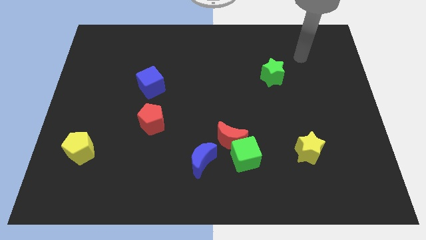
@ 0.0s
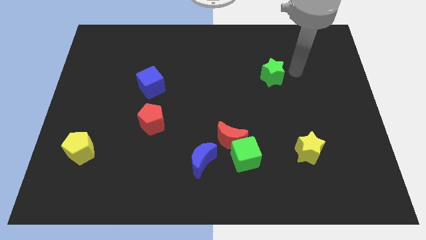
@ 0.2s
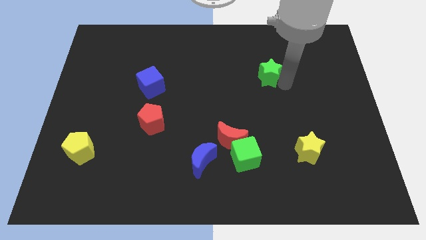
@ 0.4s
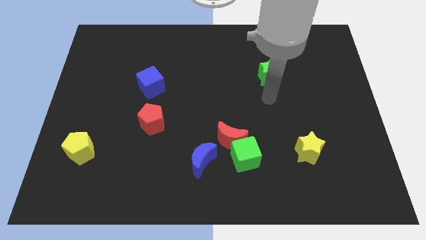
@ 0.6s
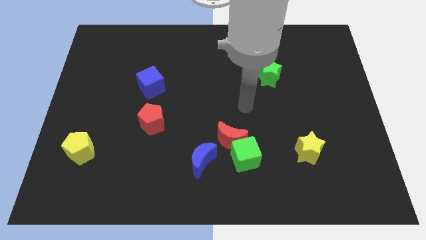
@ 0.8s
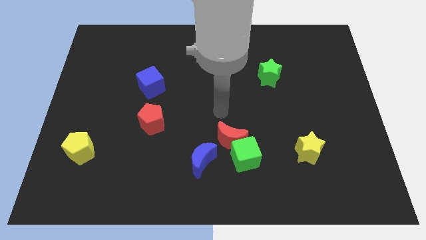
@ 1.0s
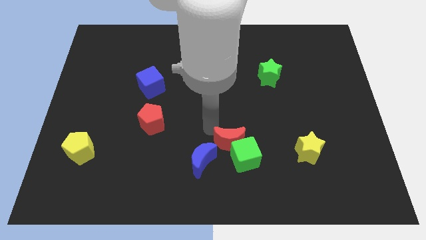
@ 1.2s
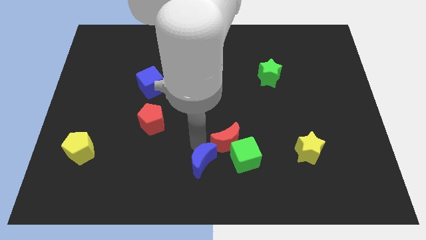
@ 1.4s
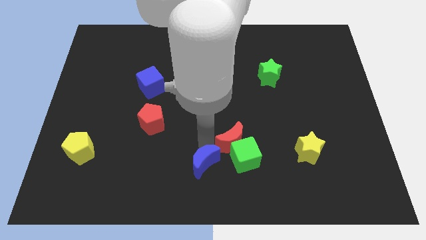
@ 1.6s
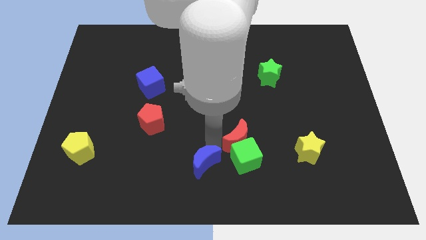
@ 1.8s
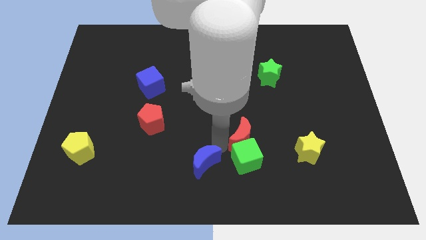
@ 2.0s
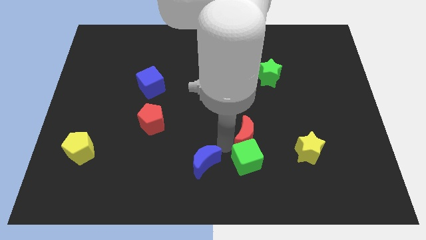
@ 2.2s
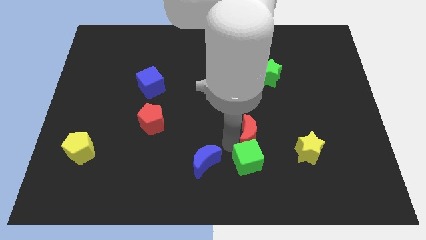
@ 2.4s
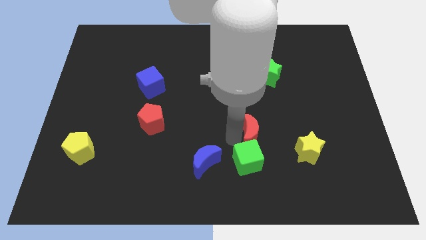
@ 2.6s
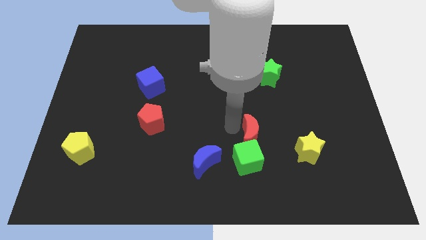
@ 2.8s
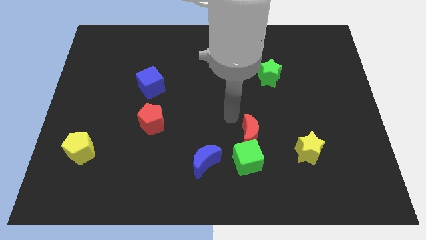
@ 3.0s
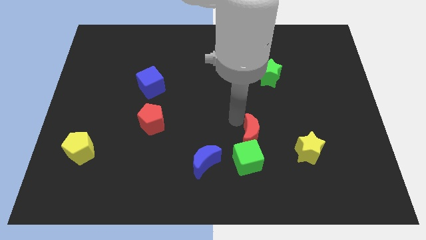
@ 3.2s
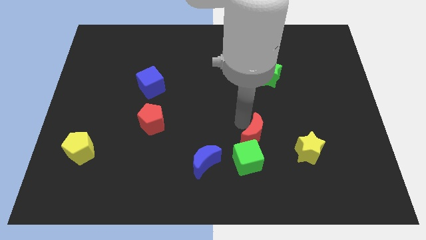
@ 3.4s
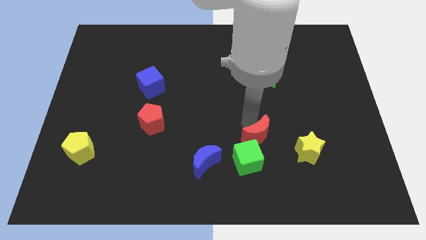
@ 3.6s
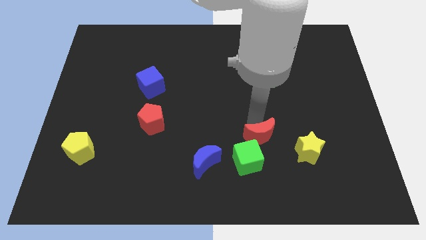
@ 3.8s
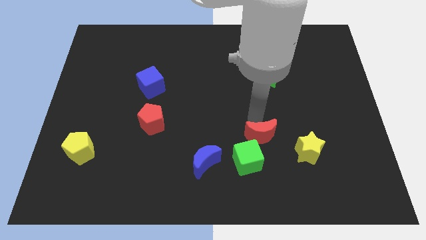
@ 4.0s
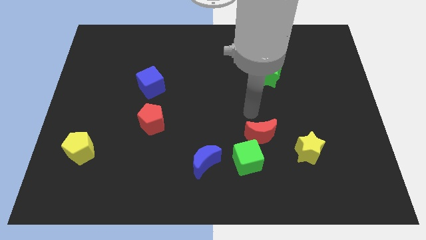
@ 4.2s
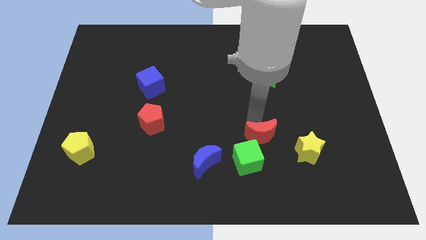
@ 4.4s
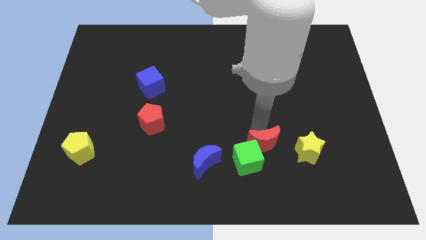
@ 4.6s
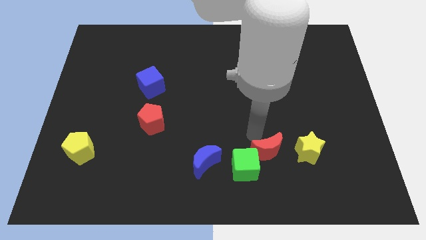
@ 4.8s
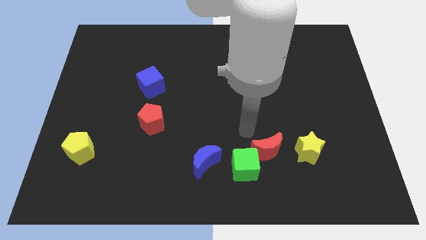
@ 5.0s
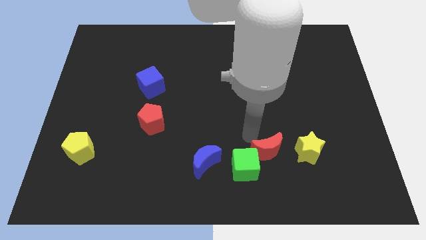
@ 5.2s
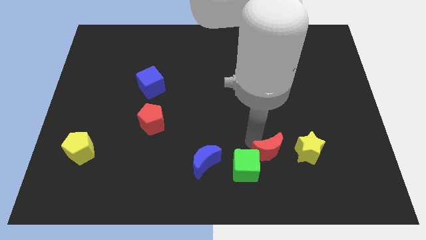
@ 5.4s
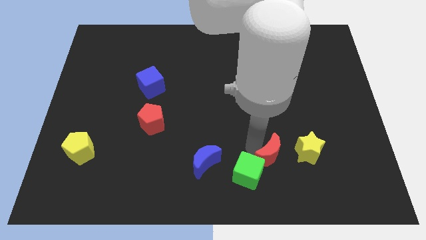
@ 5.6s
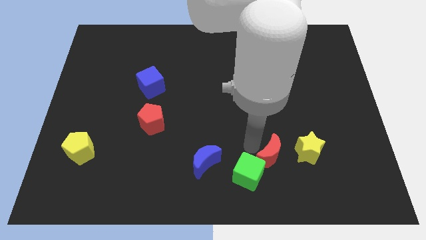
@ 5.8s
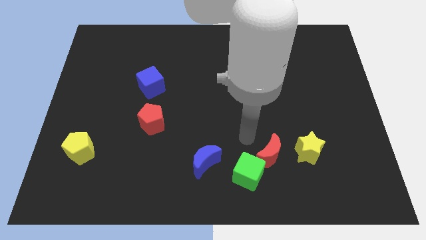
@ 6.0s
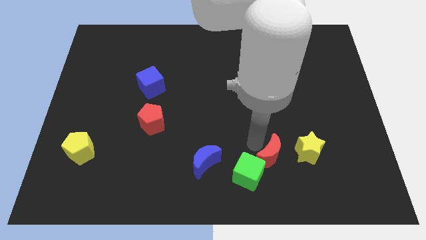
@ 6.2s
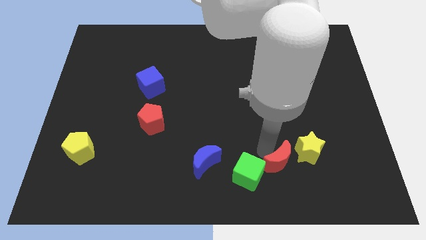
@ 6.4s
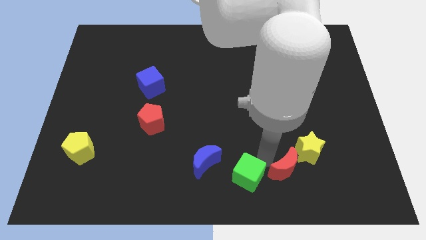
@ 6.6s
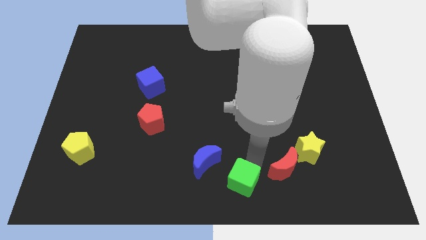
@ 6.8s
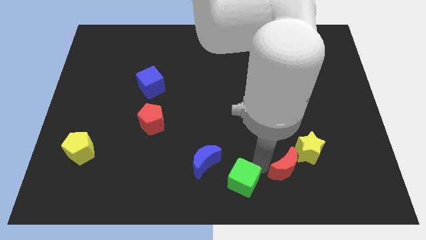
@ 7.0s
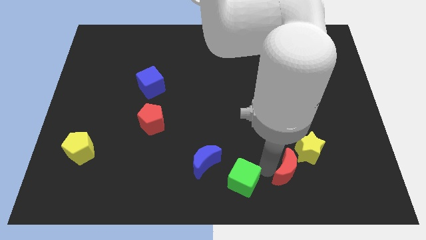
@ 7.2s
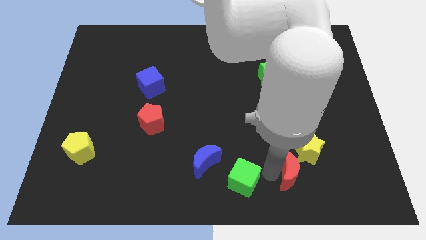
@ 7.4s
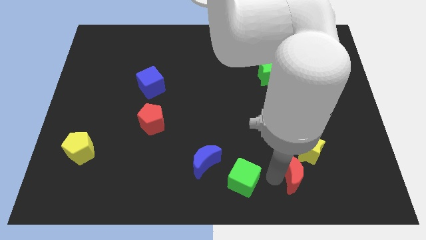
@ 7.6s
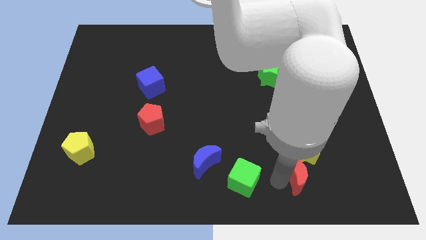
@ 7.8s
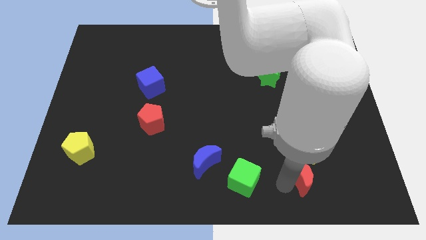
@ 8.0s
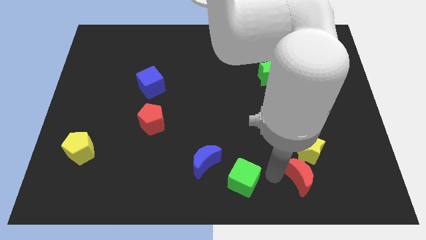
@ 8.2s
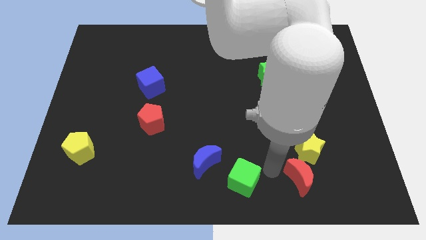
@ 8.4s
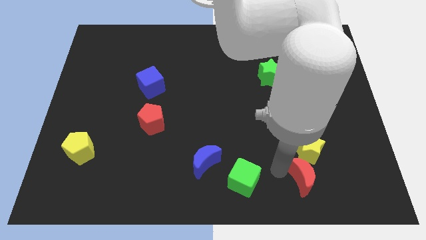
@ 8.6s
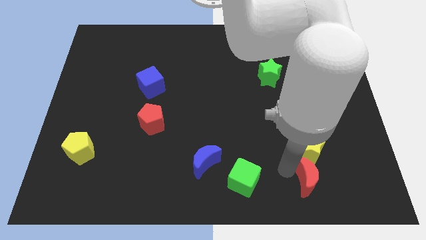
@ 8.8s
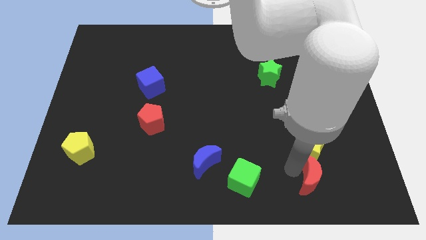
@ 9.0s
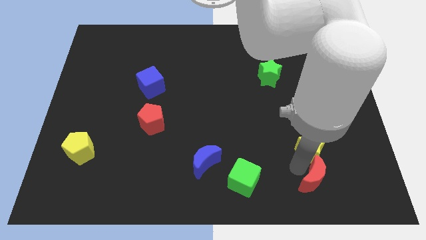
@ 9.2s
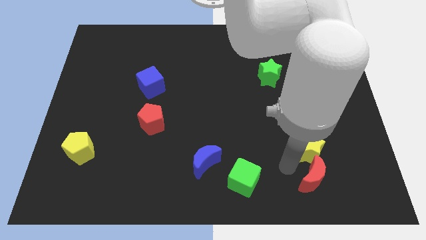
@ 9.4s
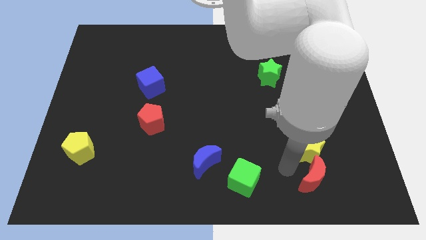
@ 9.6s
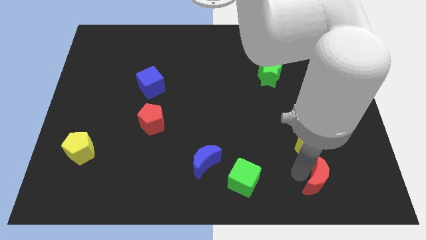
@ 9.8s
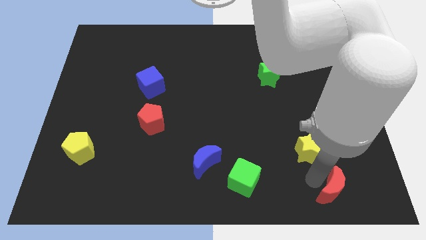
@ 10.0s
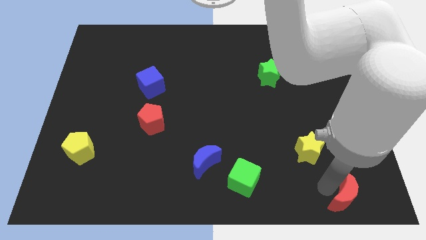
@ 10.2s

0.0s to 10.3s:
slide the red moon to the bottom right of the board

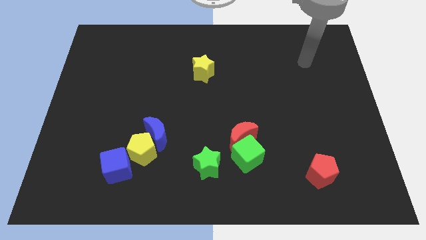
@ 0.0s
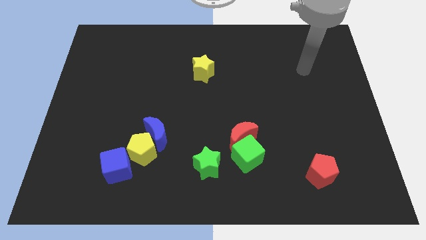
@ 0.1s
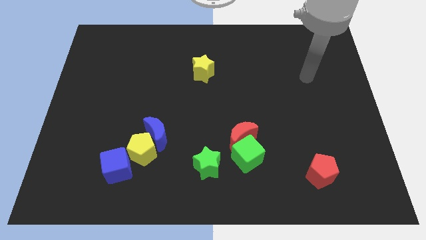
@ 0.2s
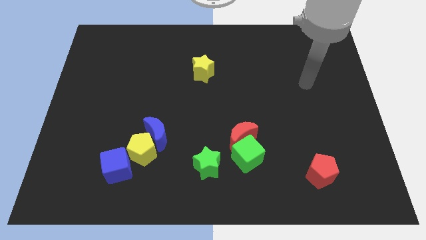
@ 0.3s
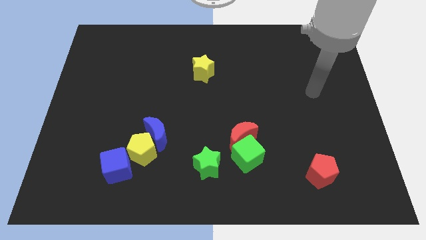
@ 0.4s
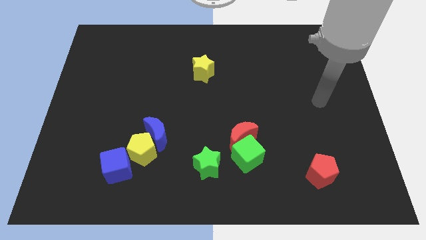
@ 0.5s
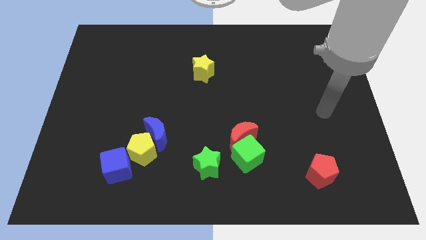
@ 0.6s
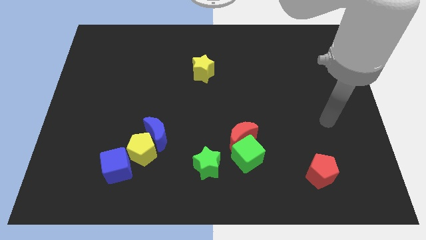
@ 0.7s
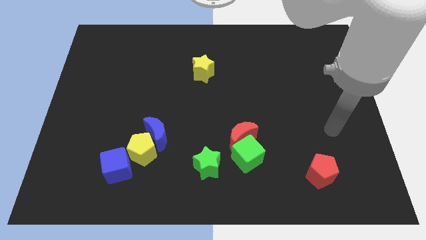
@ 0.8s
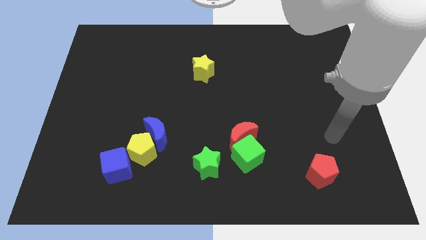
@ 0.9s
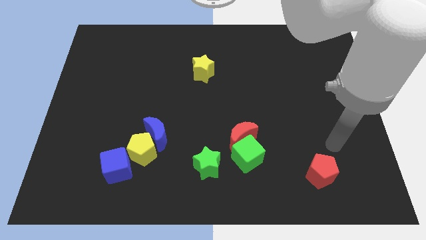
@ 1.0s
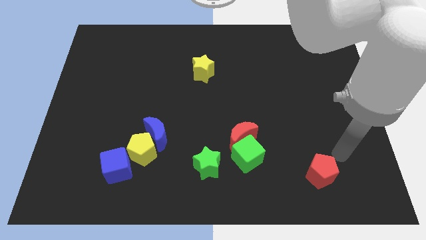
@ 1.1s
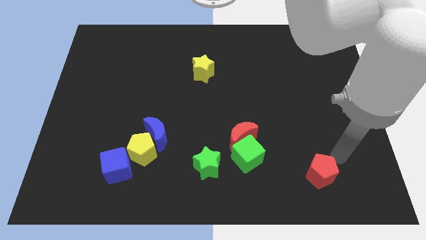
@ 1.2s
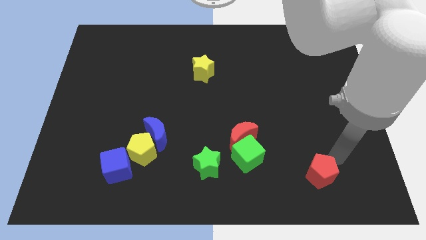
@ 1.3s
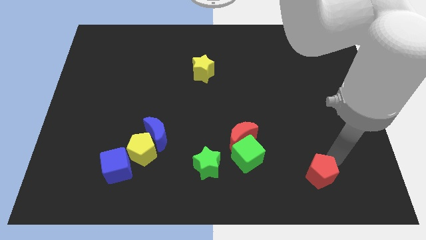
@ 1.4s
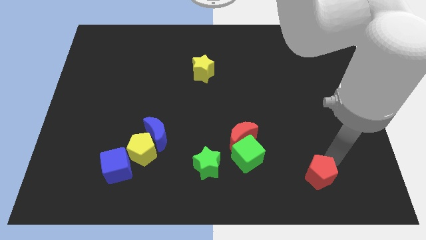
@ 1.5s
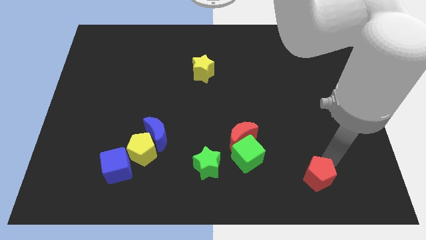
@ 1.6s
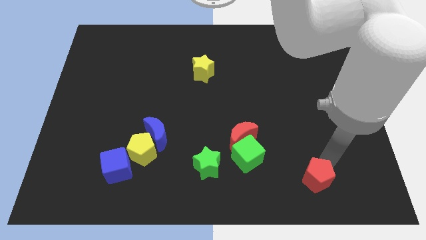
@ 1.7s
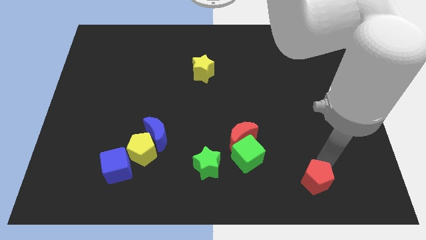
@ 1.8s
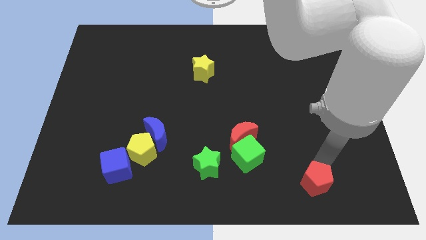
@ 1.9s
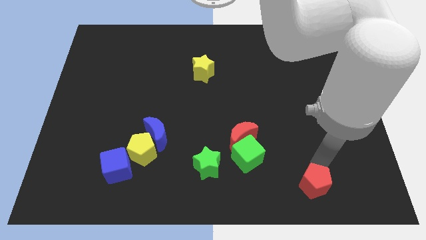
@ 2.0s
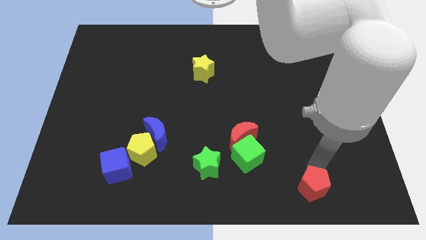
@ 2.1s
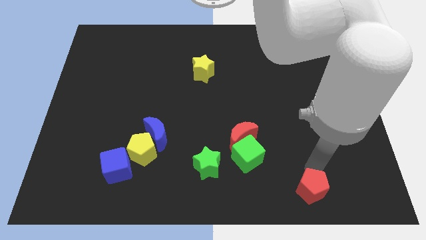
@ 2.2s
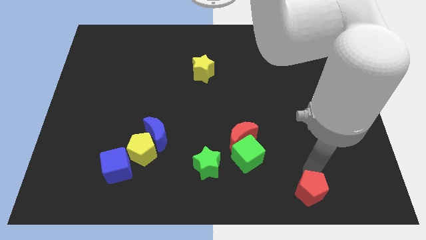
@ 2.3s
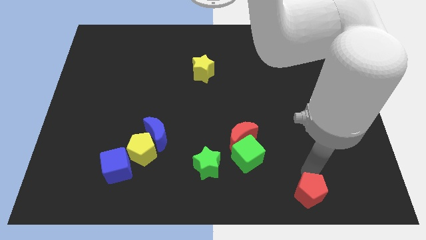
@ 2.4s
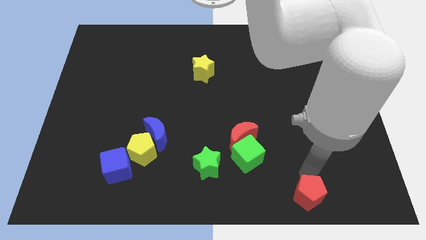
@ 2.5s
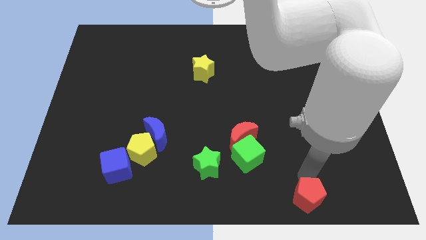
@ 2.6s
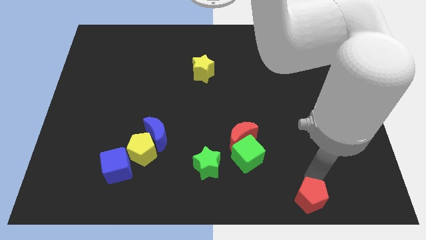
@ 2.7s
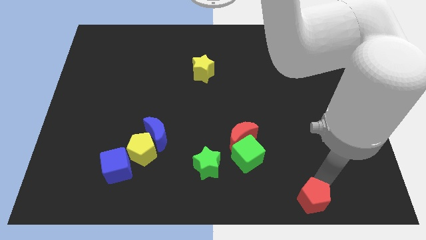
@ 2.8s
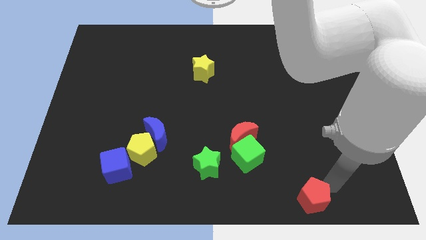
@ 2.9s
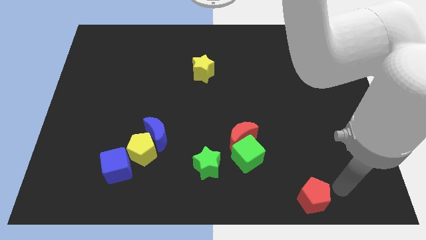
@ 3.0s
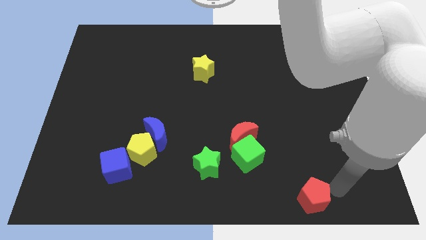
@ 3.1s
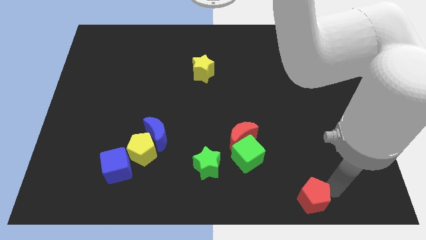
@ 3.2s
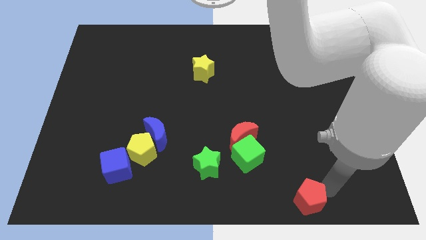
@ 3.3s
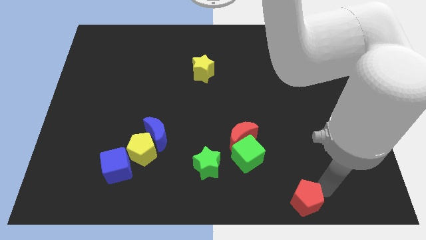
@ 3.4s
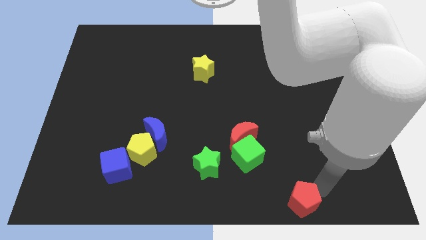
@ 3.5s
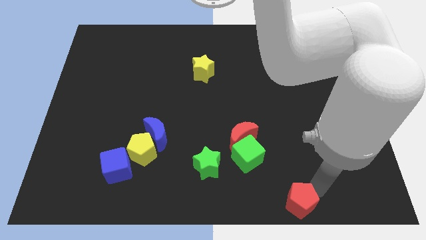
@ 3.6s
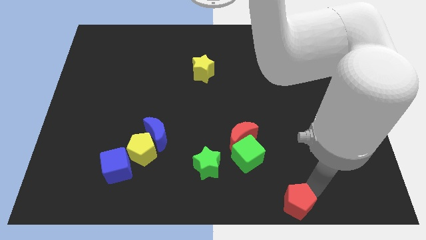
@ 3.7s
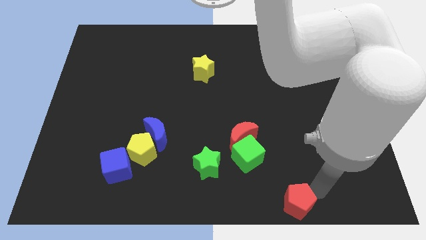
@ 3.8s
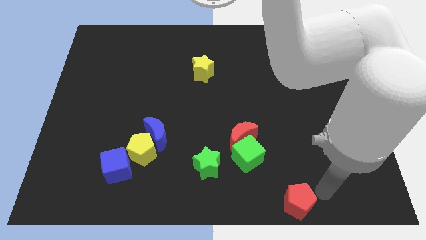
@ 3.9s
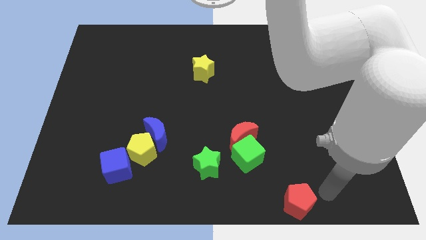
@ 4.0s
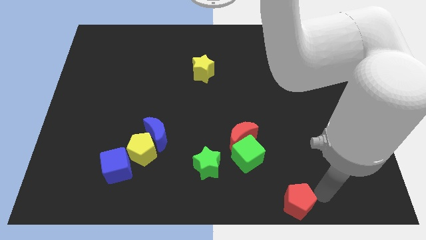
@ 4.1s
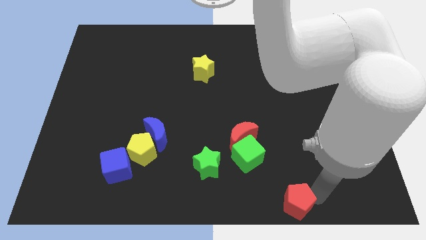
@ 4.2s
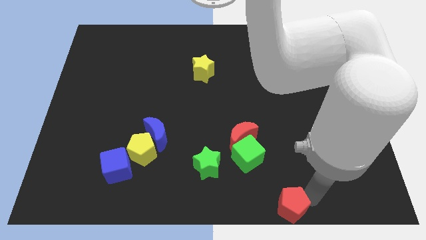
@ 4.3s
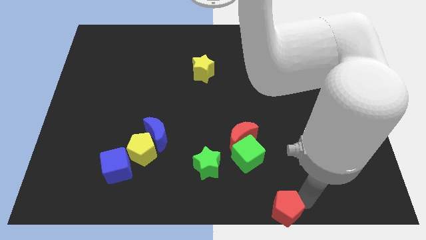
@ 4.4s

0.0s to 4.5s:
put the red pentagon to the bottom
